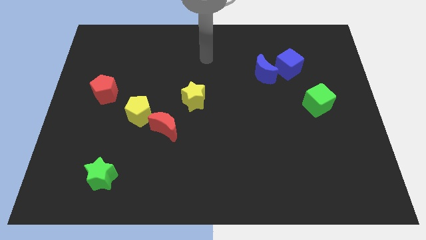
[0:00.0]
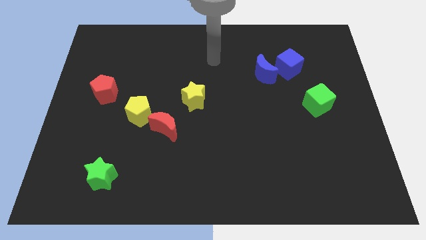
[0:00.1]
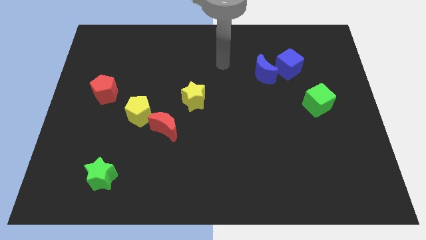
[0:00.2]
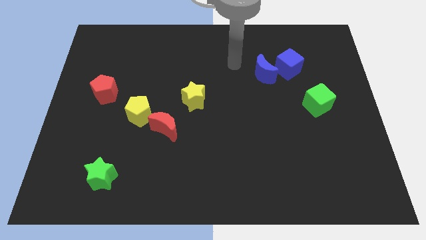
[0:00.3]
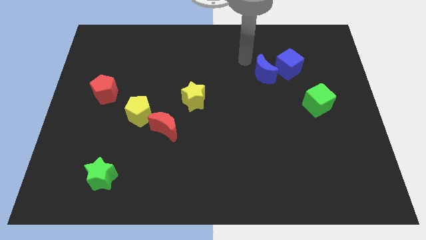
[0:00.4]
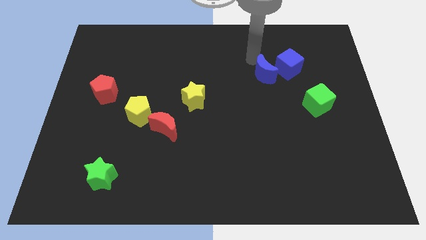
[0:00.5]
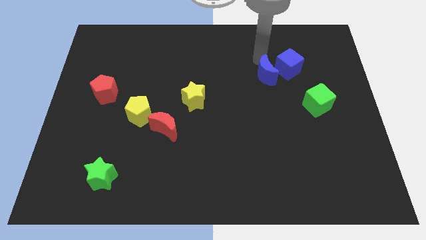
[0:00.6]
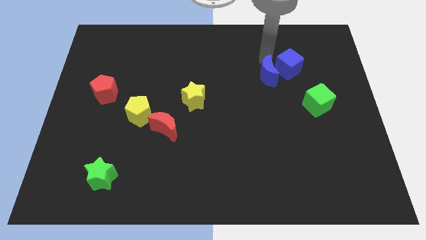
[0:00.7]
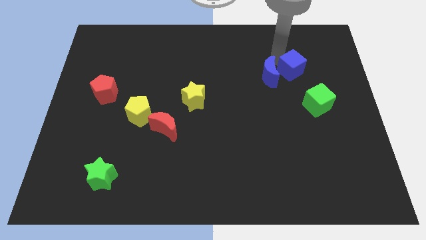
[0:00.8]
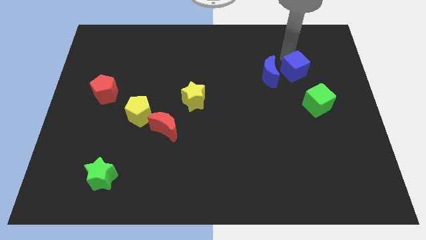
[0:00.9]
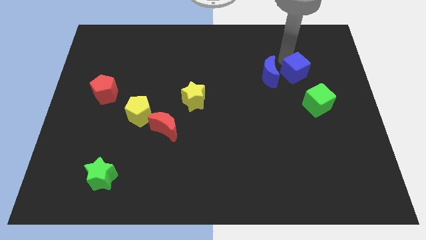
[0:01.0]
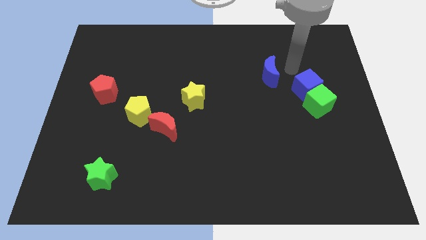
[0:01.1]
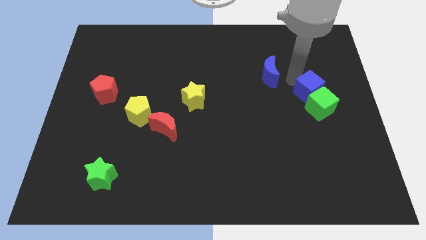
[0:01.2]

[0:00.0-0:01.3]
move the blue moon away from the blue cube

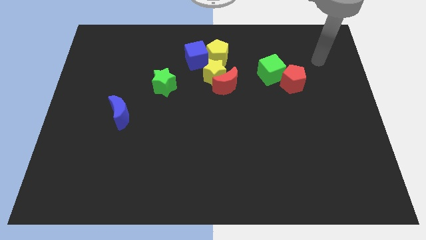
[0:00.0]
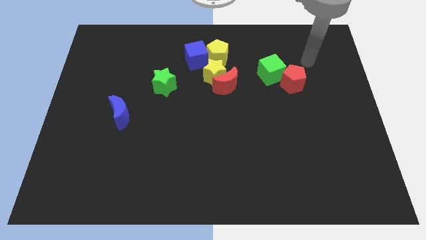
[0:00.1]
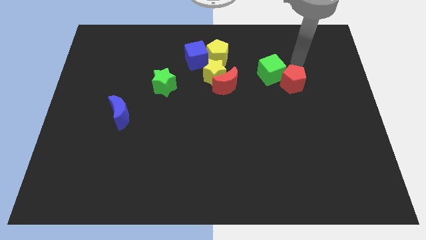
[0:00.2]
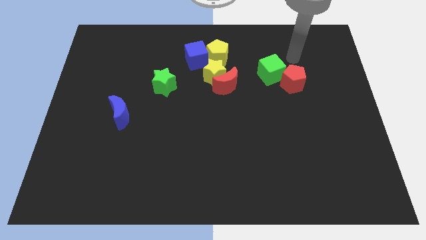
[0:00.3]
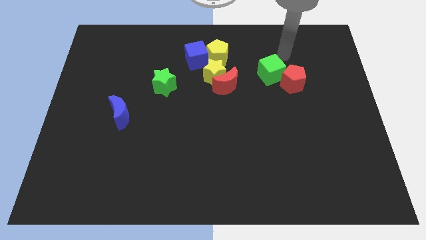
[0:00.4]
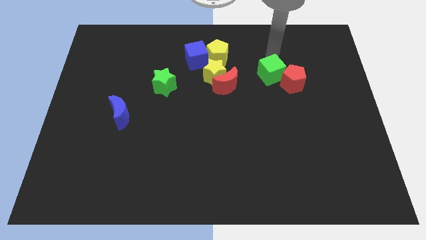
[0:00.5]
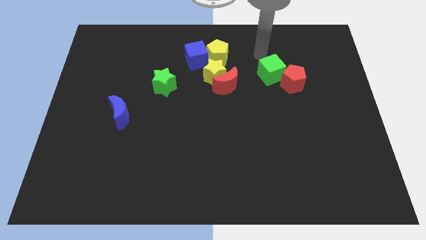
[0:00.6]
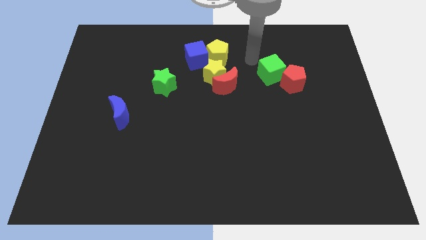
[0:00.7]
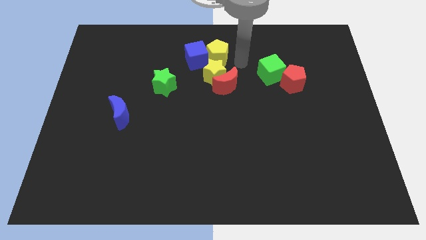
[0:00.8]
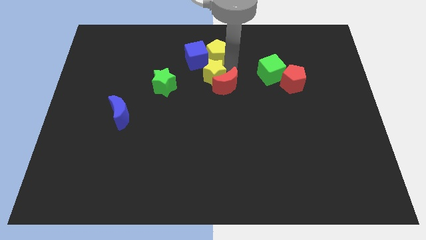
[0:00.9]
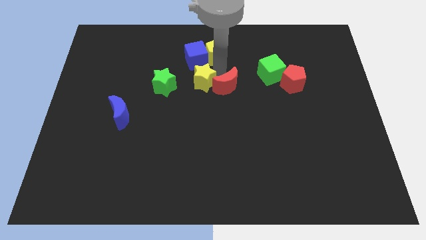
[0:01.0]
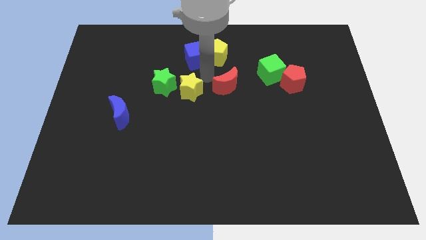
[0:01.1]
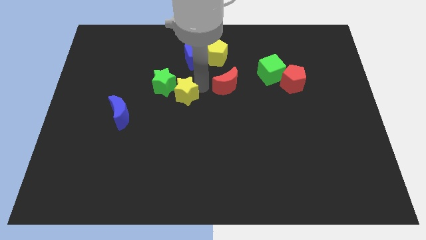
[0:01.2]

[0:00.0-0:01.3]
pull the red moon apart from the yellow star

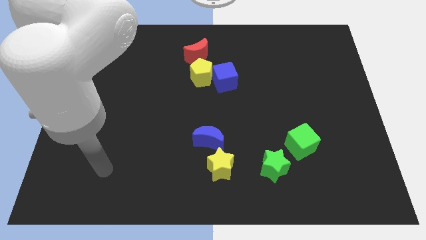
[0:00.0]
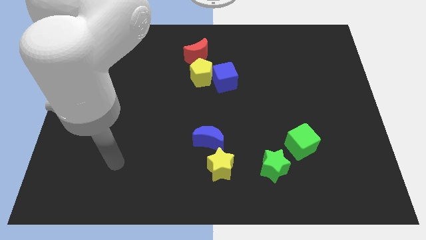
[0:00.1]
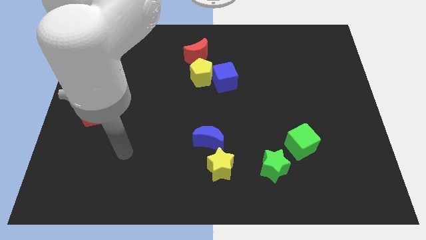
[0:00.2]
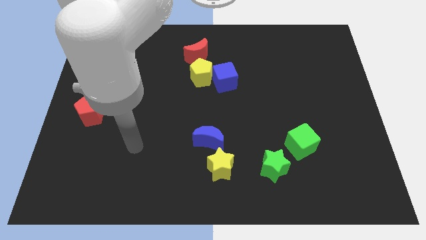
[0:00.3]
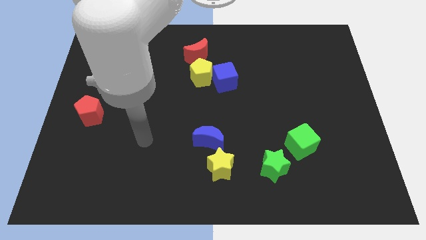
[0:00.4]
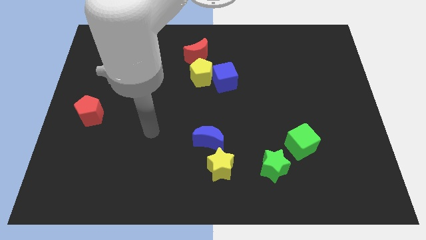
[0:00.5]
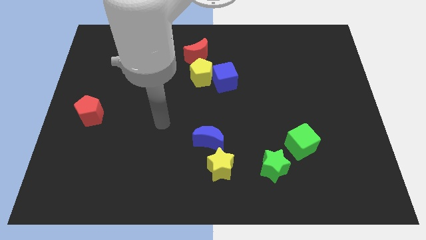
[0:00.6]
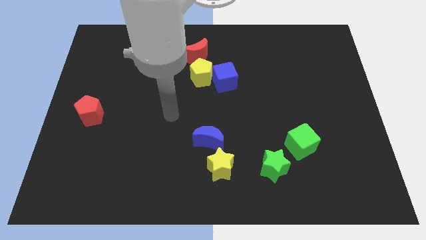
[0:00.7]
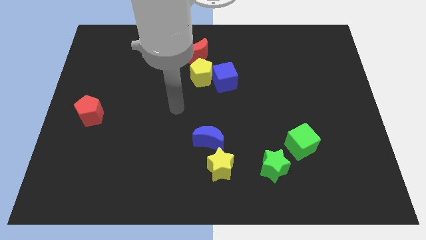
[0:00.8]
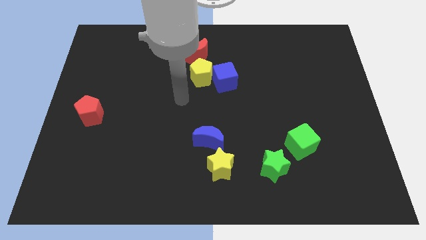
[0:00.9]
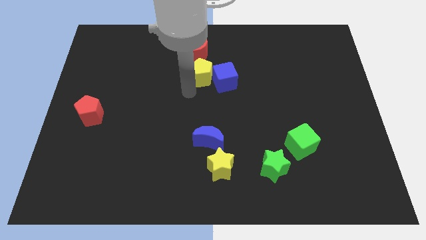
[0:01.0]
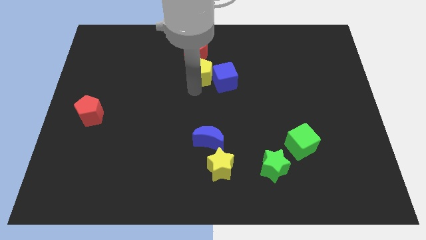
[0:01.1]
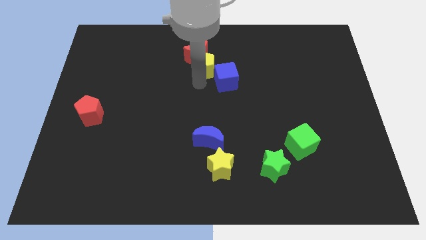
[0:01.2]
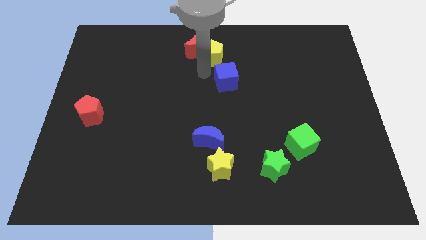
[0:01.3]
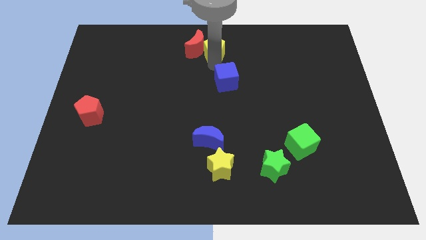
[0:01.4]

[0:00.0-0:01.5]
pull the blue cube apart from the yellow pentagon

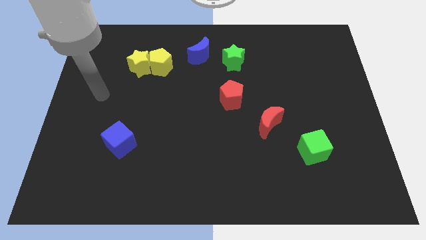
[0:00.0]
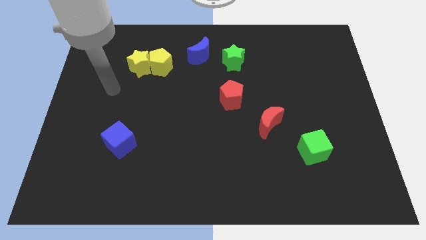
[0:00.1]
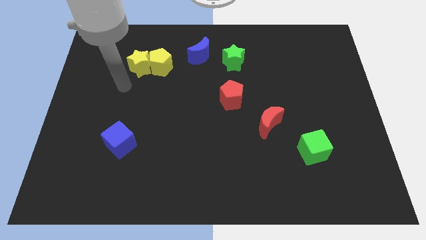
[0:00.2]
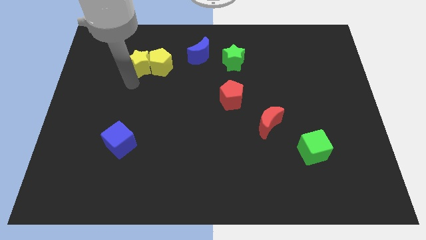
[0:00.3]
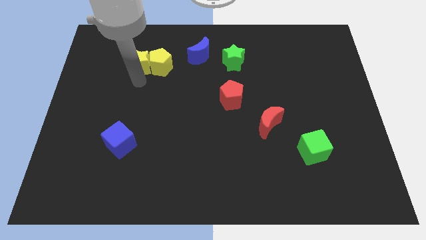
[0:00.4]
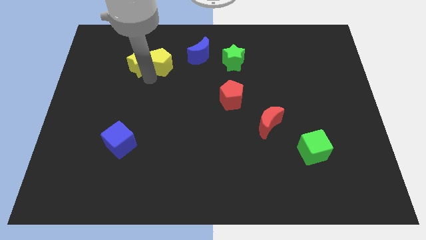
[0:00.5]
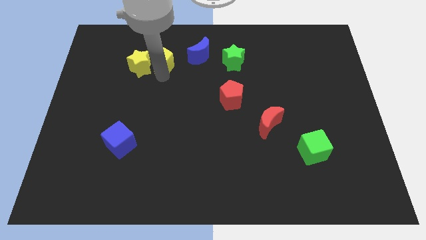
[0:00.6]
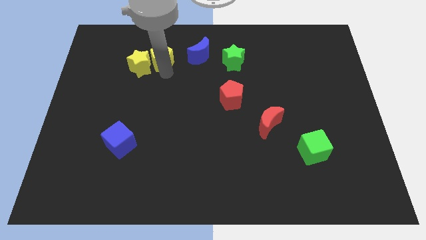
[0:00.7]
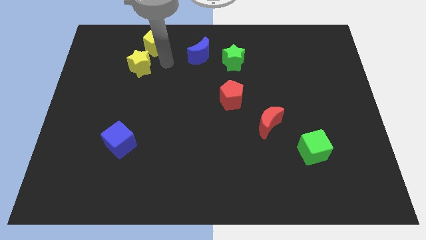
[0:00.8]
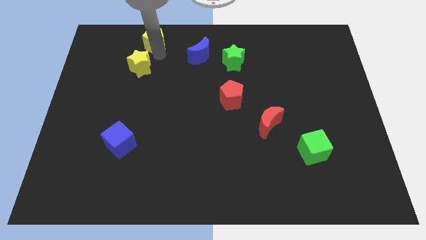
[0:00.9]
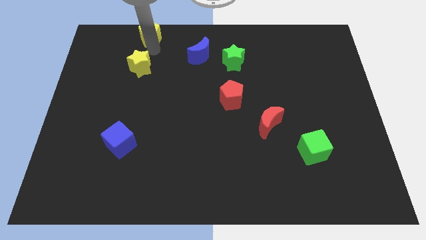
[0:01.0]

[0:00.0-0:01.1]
pull the yellow star apart from the yellow pentagon

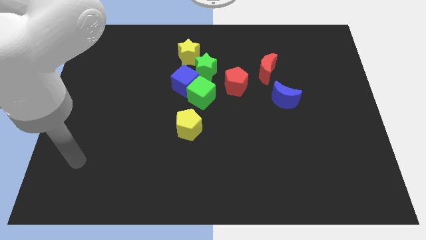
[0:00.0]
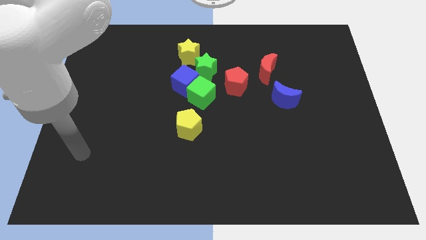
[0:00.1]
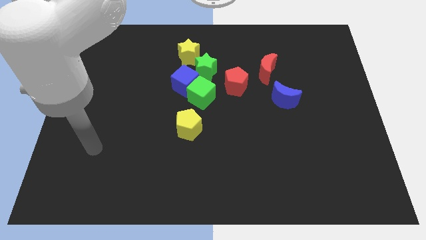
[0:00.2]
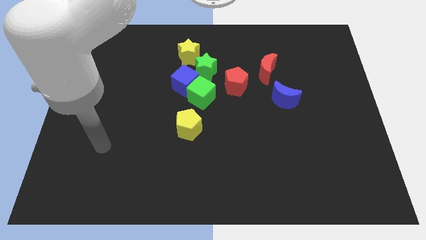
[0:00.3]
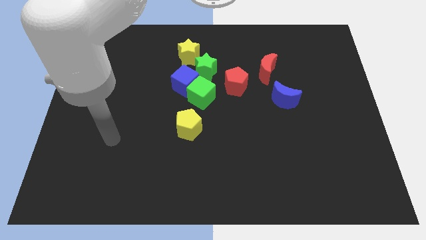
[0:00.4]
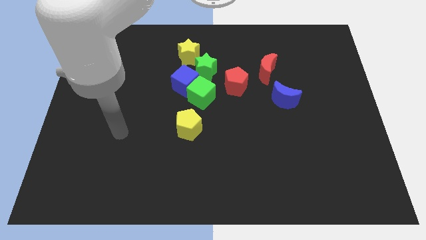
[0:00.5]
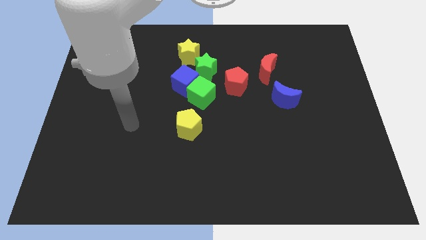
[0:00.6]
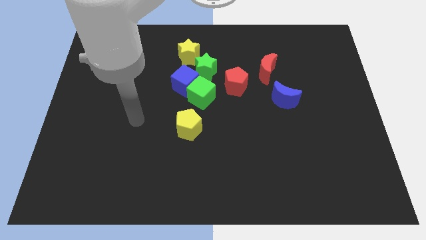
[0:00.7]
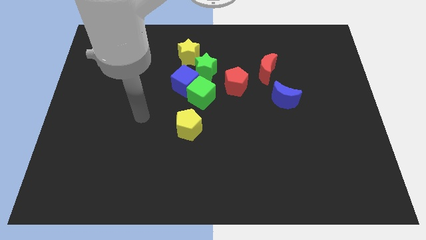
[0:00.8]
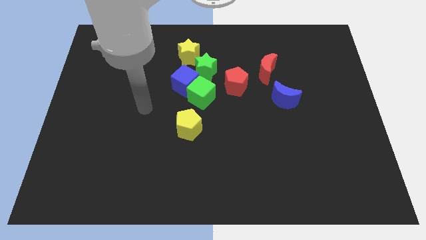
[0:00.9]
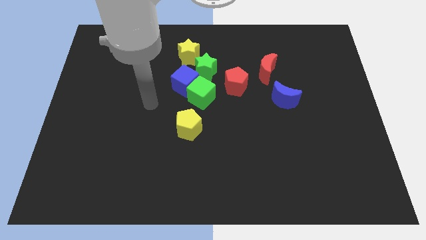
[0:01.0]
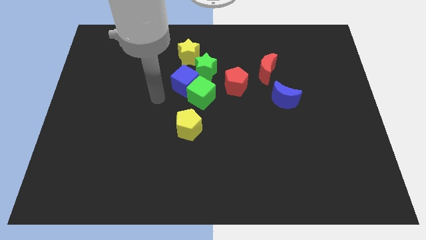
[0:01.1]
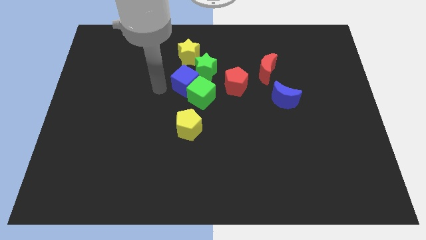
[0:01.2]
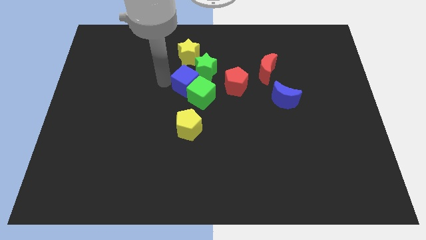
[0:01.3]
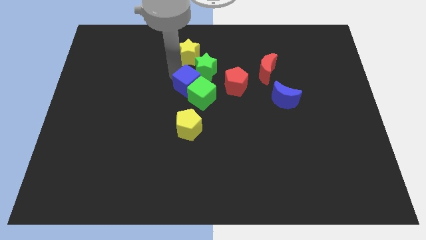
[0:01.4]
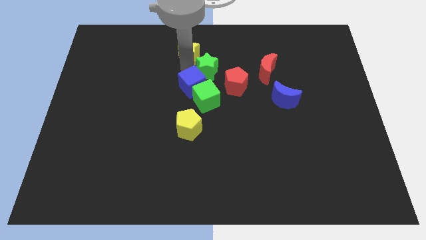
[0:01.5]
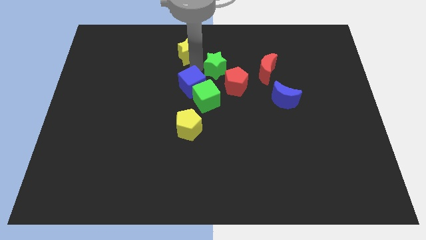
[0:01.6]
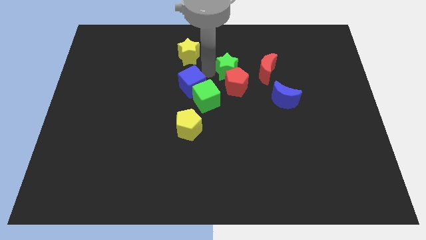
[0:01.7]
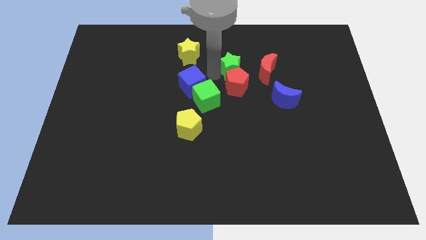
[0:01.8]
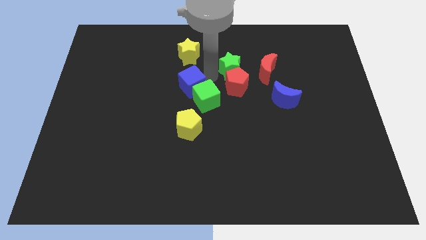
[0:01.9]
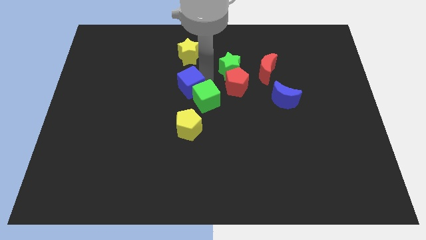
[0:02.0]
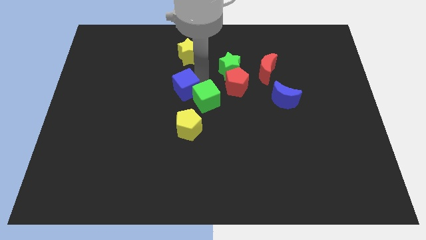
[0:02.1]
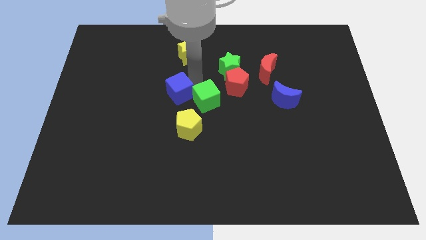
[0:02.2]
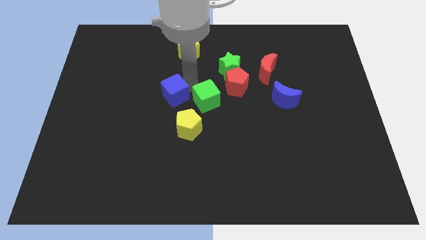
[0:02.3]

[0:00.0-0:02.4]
separate the blue cube from the group

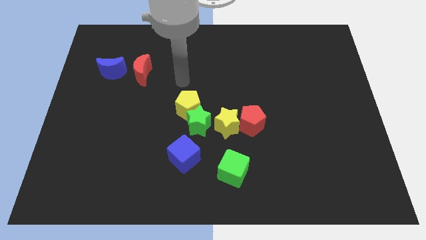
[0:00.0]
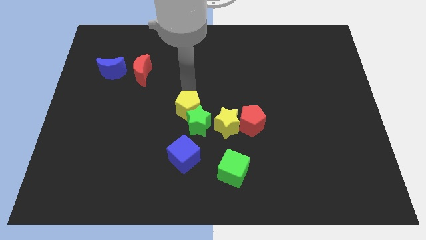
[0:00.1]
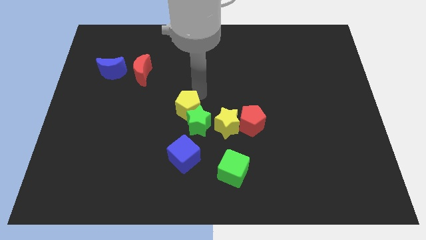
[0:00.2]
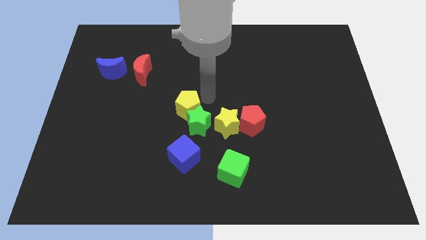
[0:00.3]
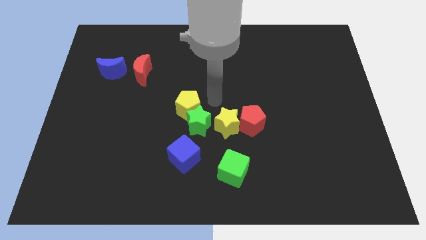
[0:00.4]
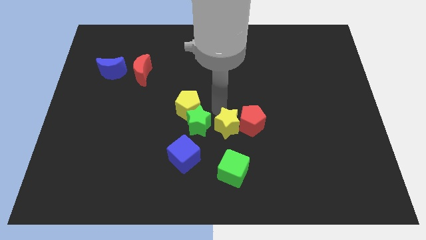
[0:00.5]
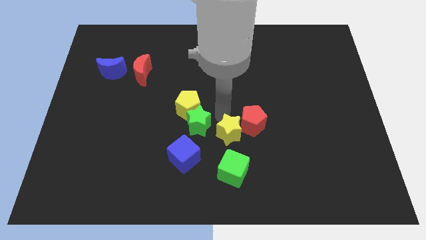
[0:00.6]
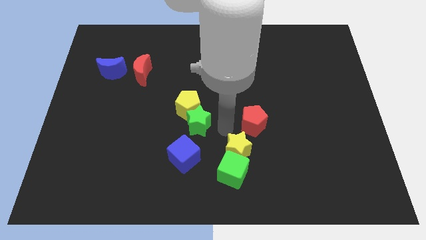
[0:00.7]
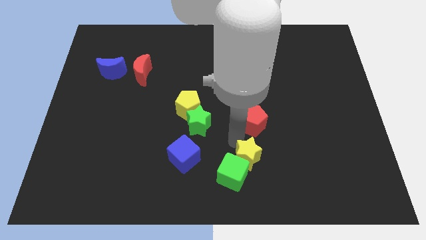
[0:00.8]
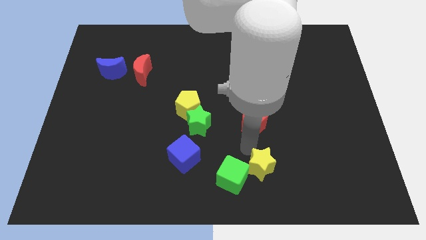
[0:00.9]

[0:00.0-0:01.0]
pull the red pentagon apart from the yellow star

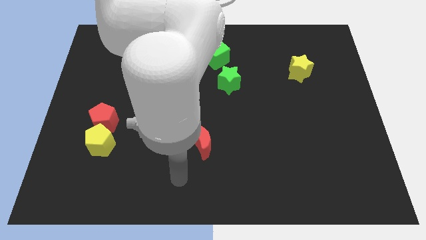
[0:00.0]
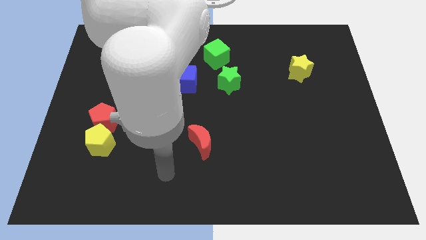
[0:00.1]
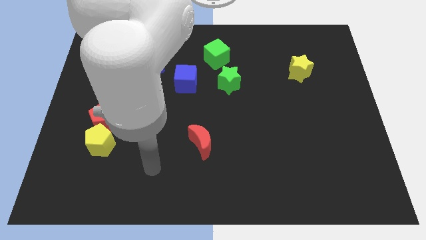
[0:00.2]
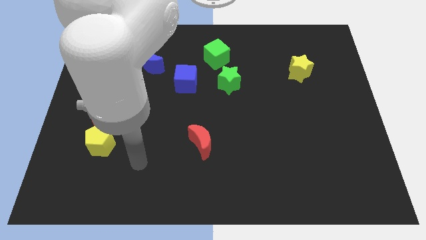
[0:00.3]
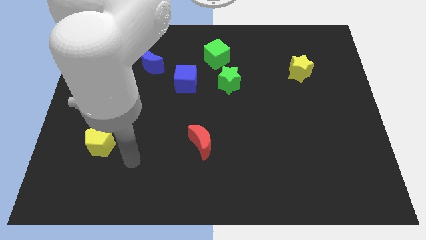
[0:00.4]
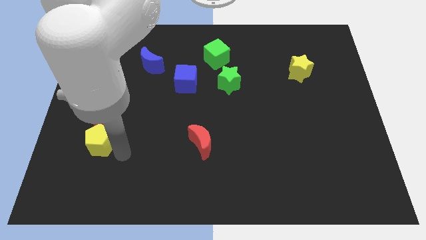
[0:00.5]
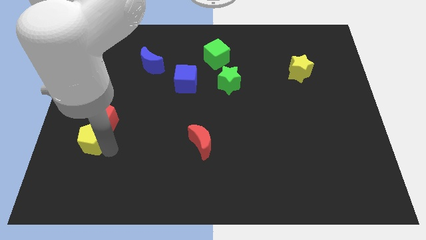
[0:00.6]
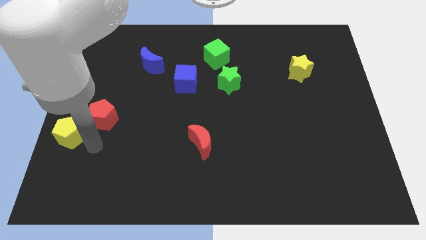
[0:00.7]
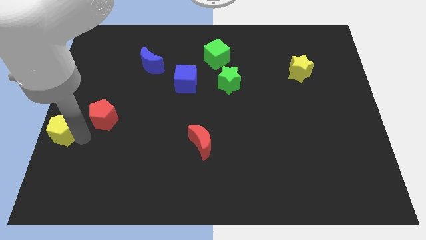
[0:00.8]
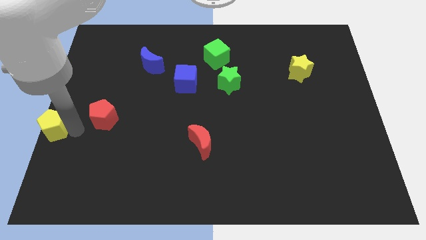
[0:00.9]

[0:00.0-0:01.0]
move the red pentagon away from the yellow pentagon
